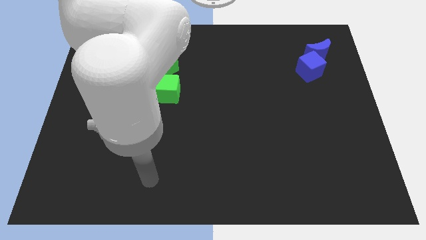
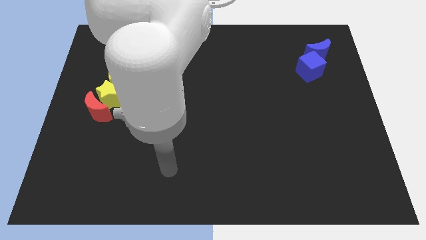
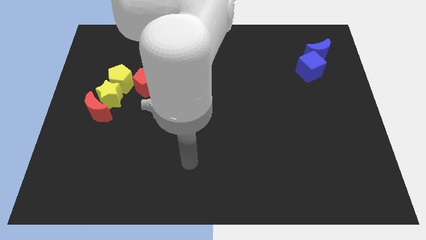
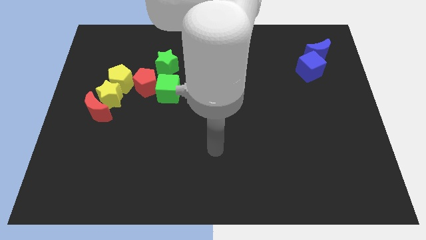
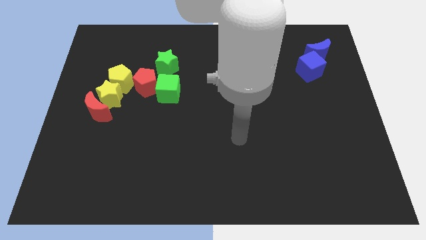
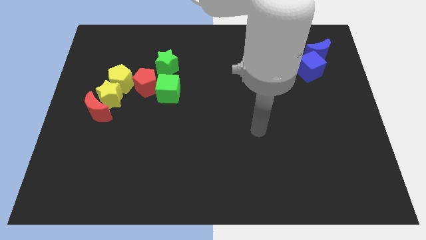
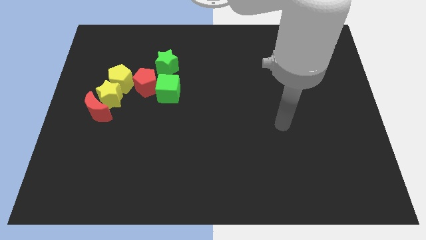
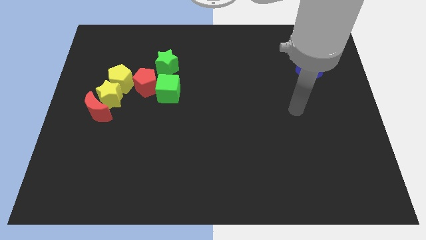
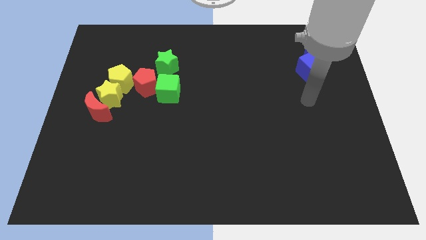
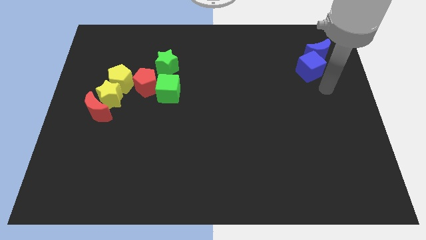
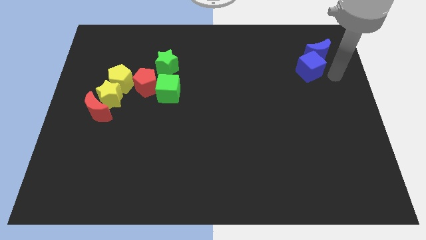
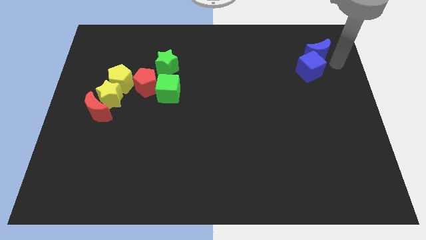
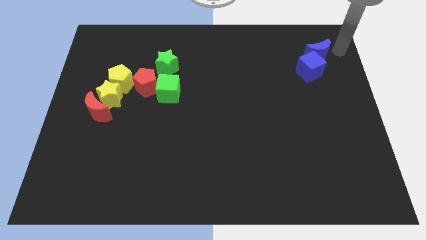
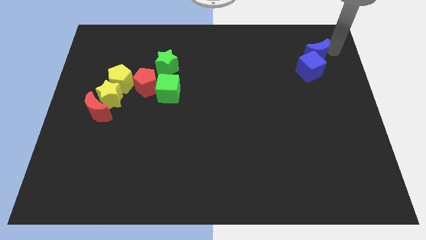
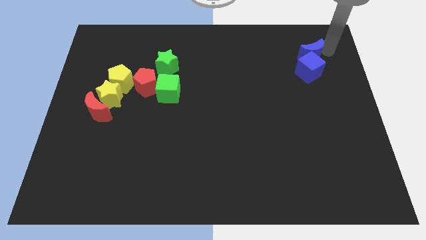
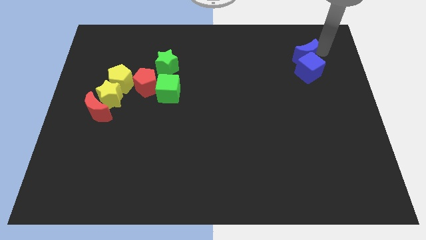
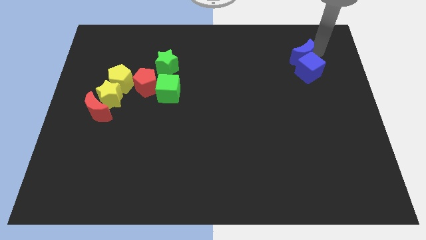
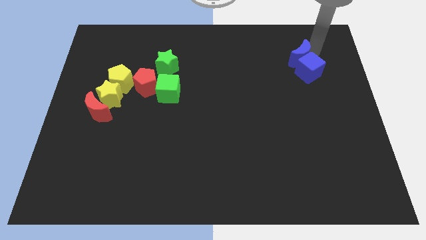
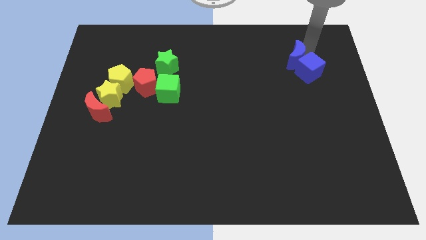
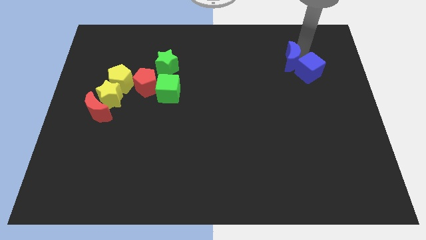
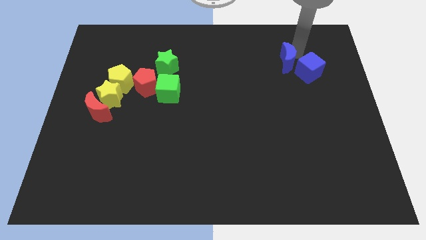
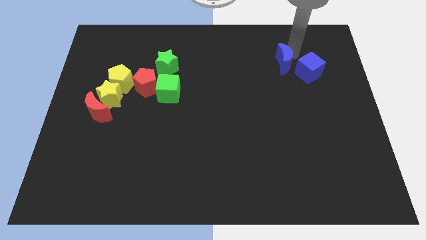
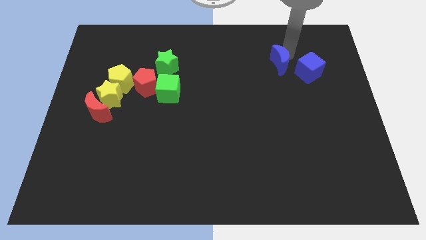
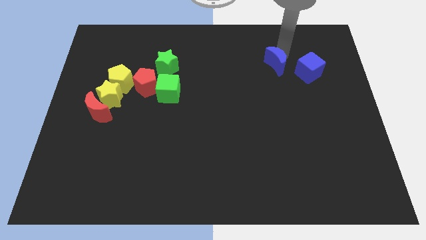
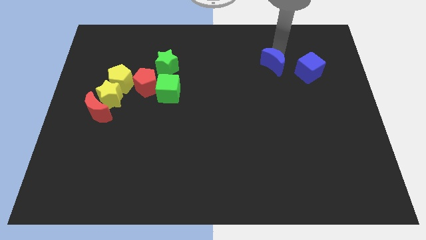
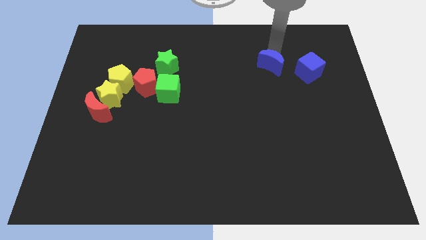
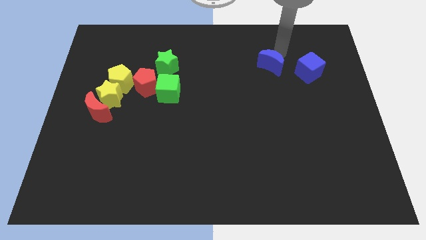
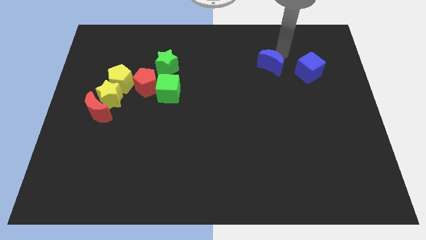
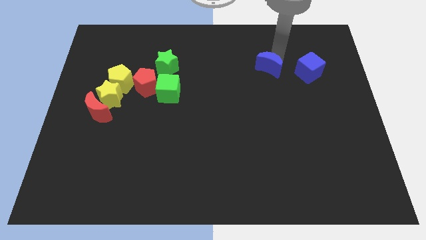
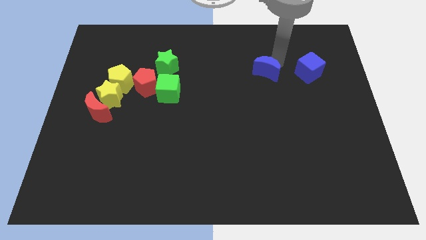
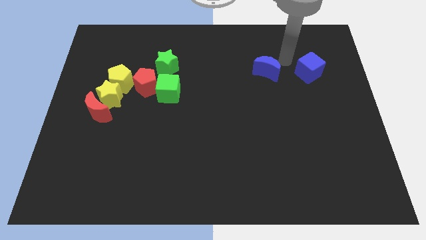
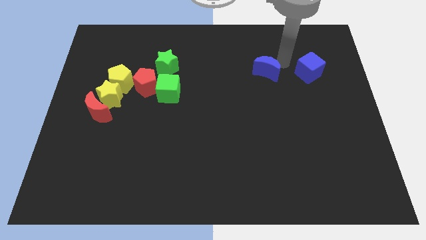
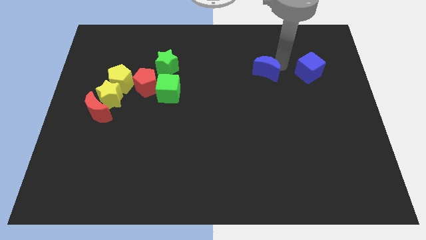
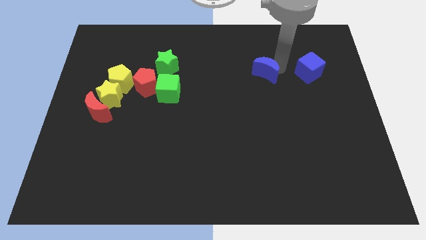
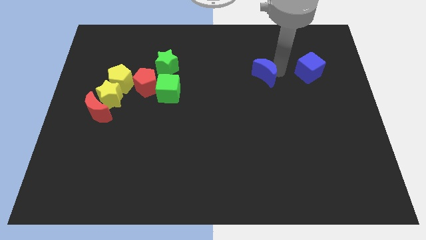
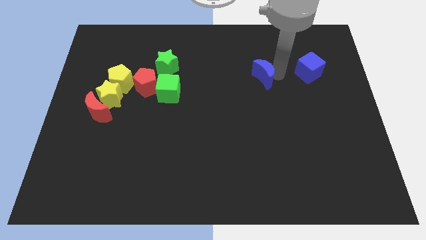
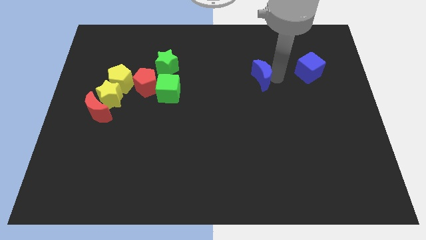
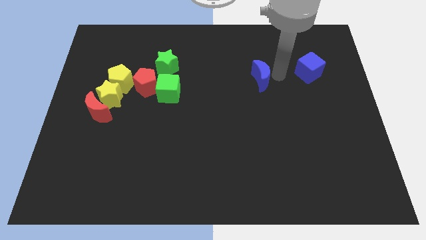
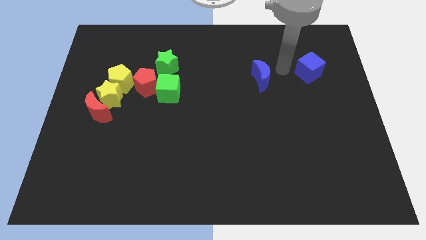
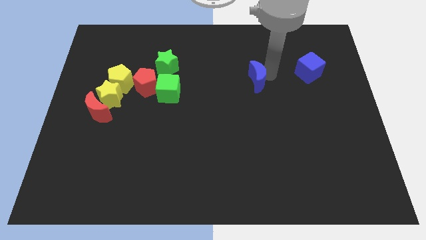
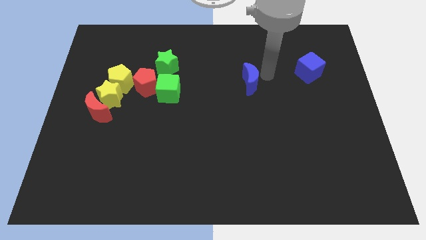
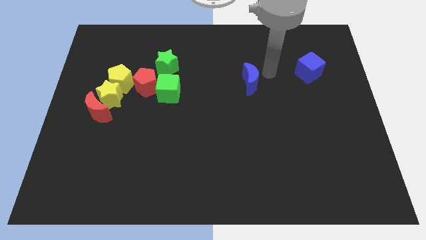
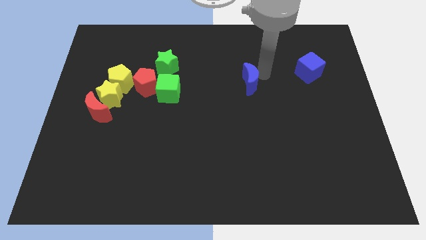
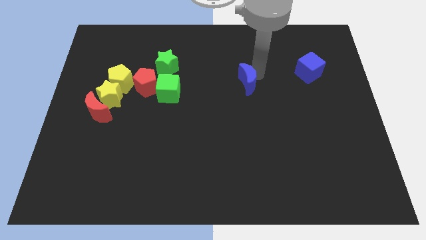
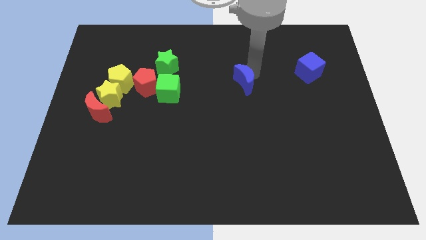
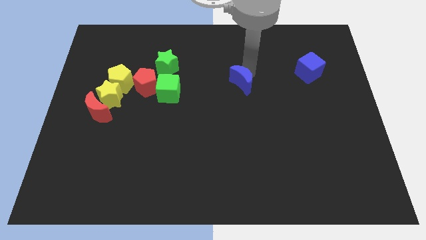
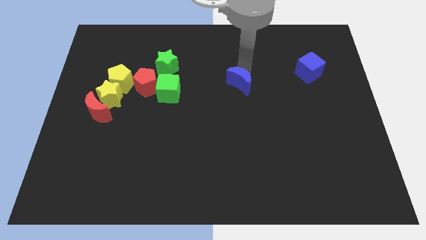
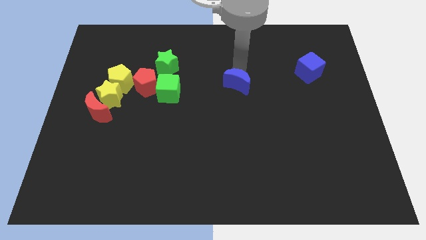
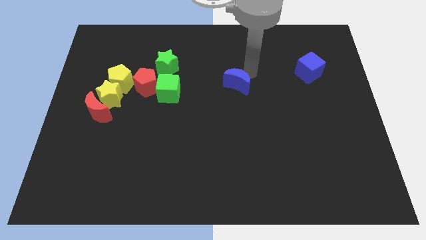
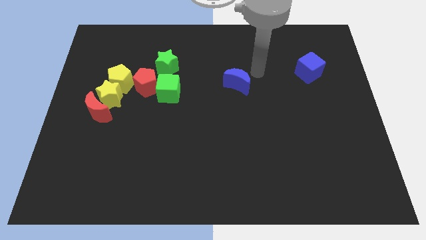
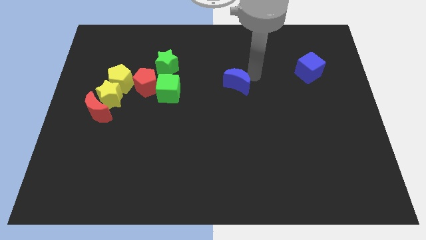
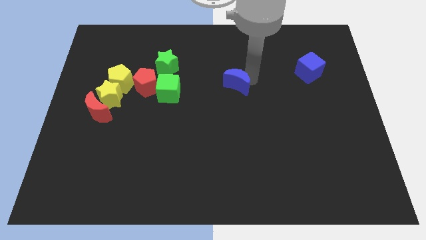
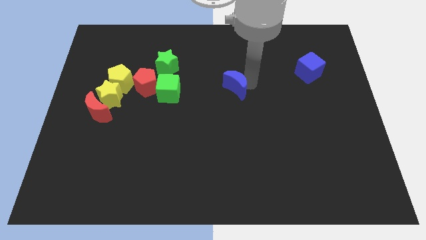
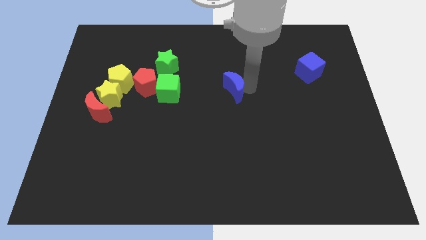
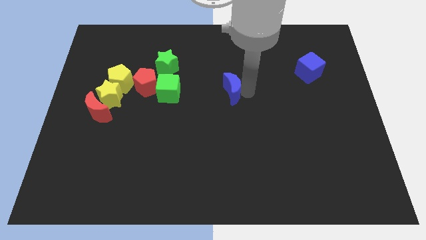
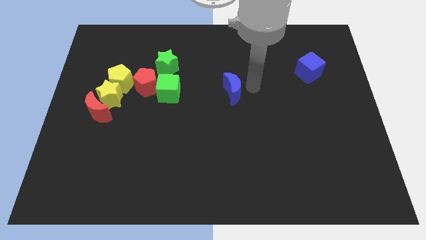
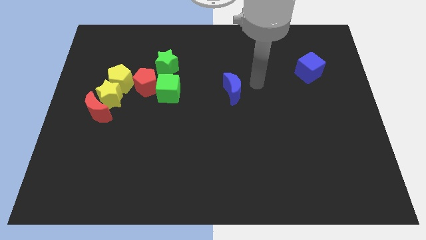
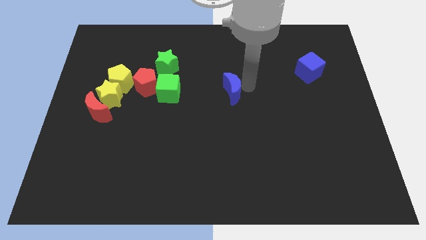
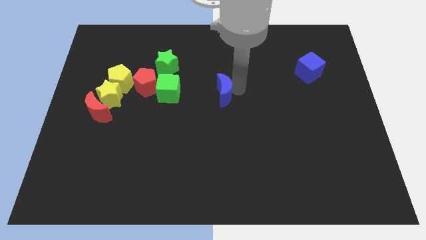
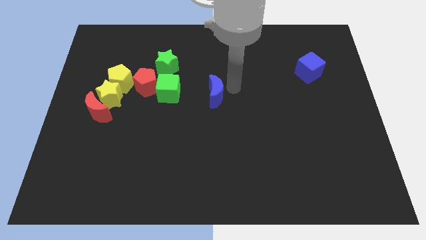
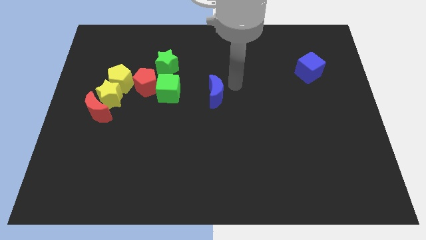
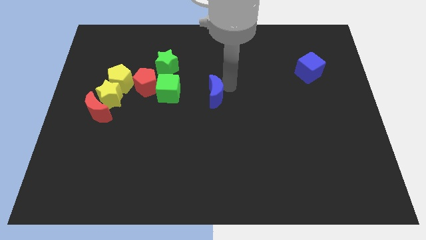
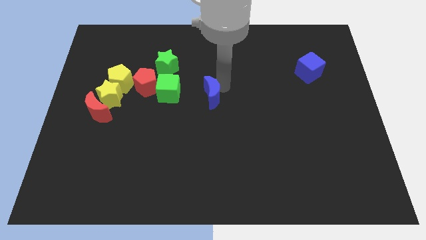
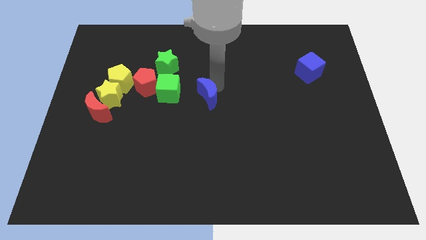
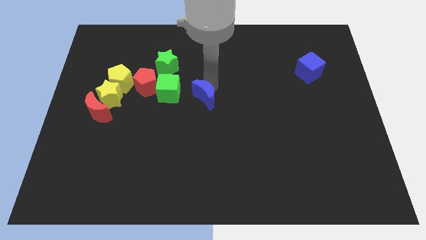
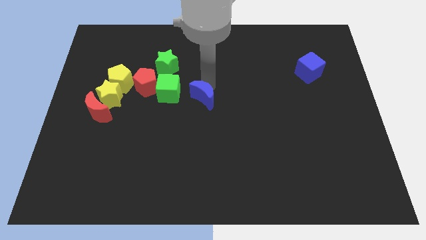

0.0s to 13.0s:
slide the blue moon diagonally down and to the right of the green cube
